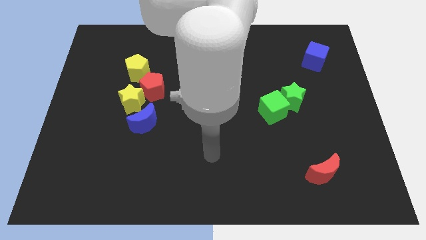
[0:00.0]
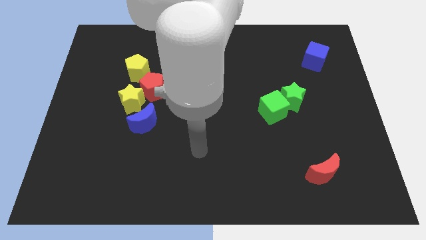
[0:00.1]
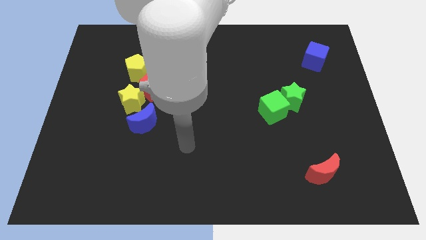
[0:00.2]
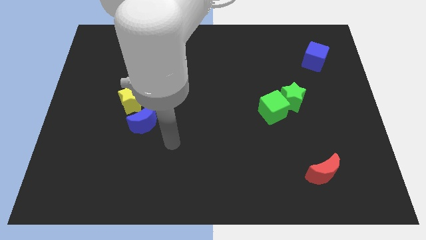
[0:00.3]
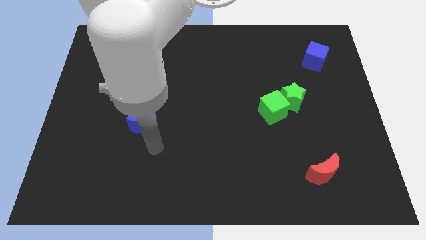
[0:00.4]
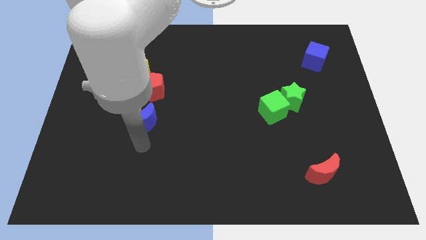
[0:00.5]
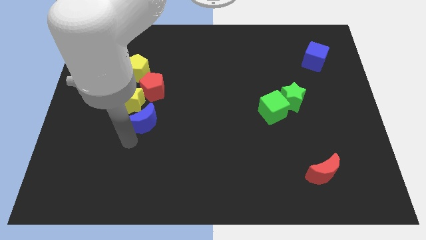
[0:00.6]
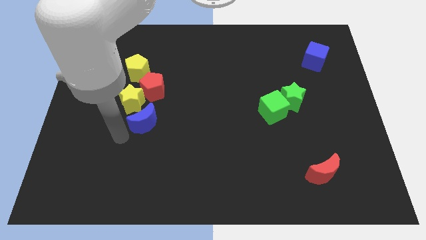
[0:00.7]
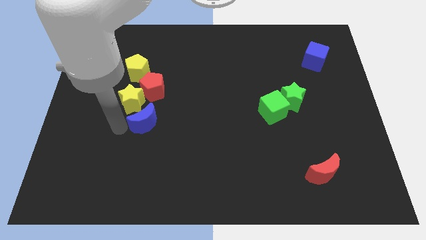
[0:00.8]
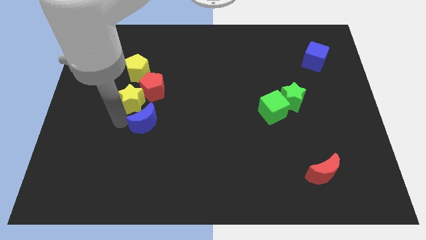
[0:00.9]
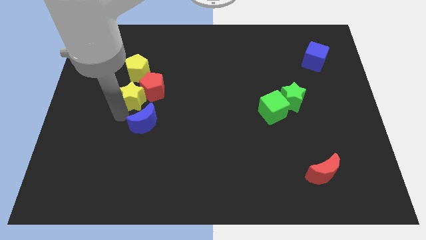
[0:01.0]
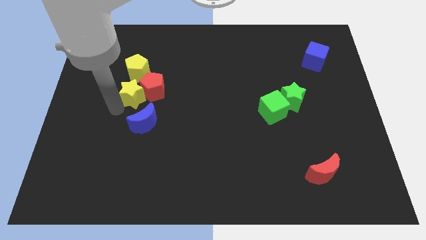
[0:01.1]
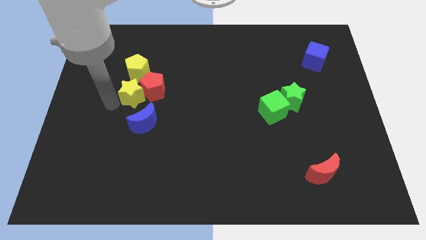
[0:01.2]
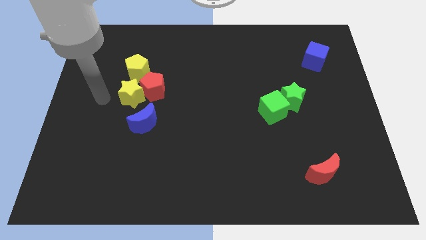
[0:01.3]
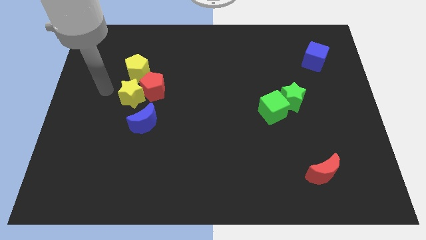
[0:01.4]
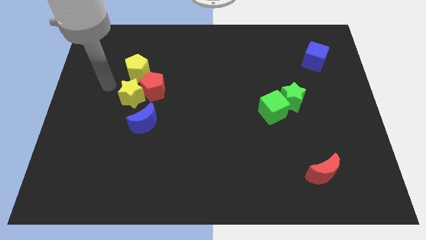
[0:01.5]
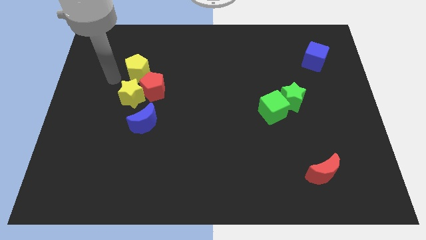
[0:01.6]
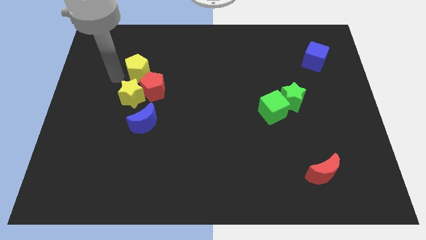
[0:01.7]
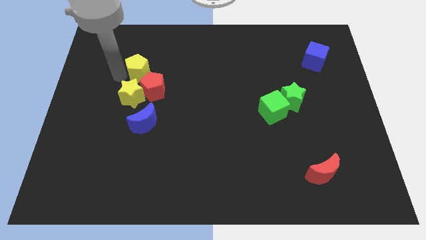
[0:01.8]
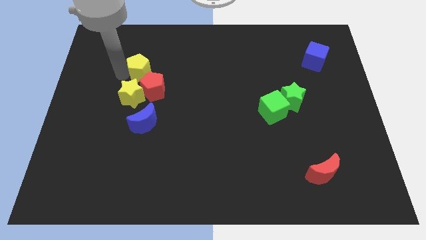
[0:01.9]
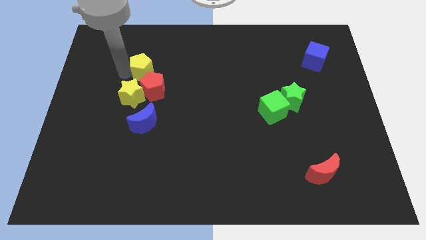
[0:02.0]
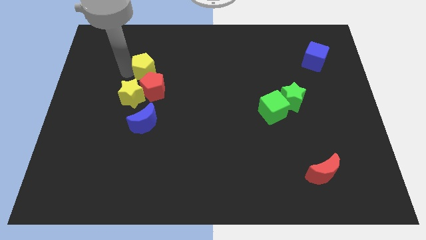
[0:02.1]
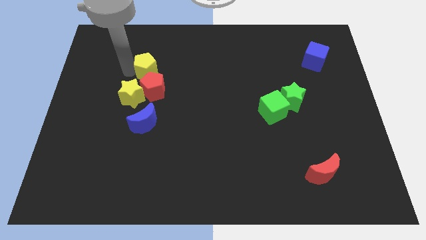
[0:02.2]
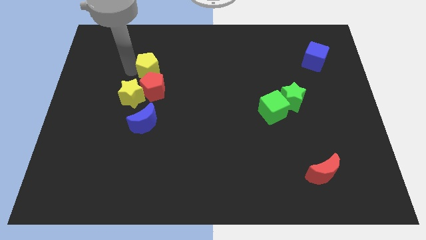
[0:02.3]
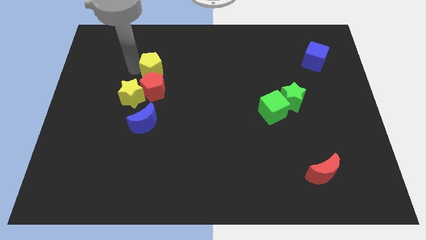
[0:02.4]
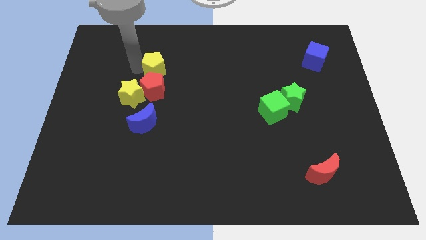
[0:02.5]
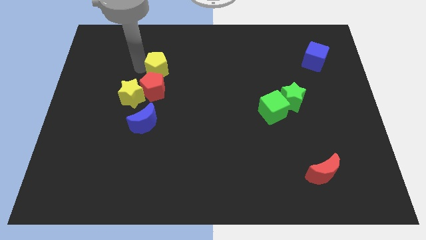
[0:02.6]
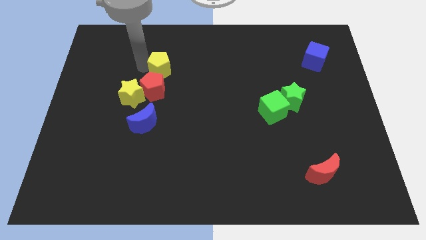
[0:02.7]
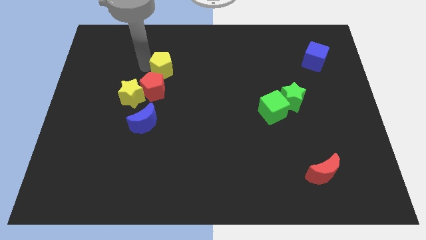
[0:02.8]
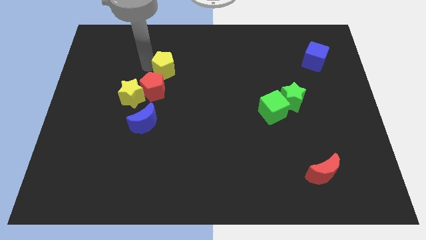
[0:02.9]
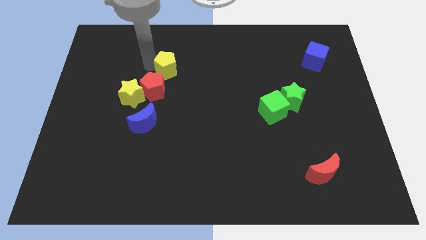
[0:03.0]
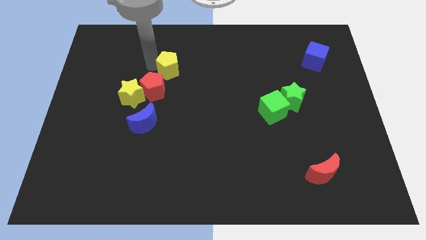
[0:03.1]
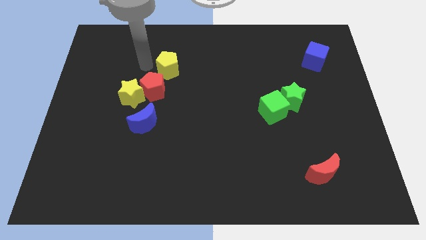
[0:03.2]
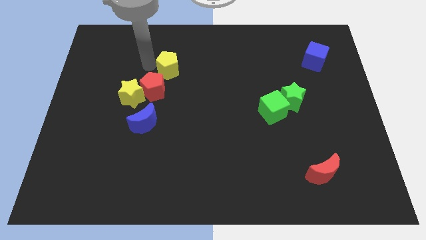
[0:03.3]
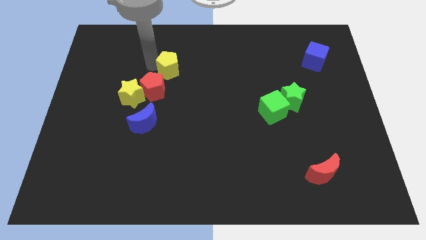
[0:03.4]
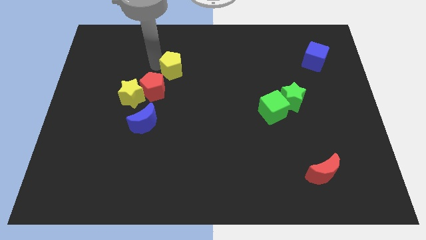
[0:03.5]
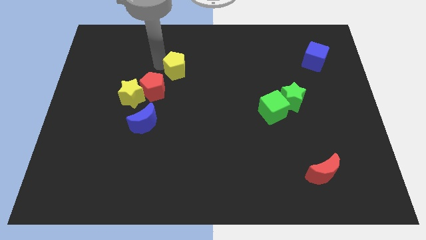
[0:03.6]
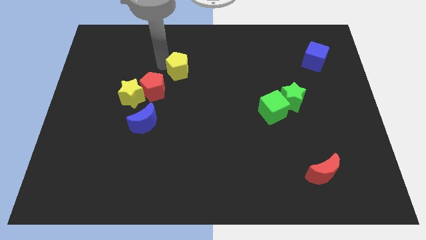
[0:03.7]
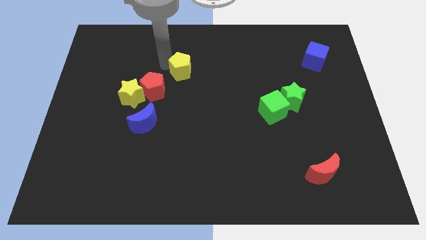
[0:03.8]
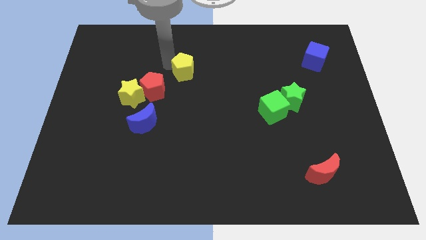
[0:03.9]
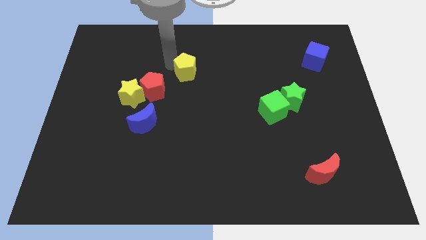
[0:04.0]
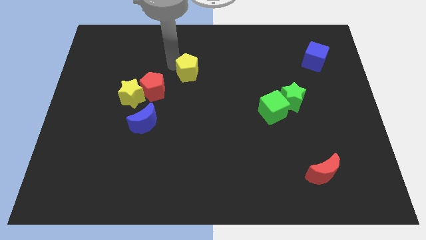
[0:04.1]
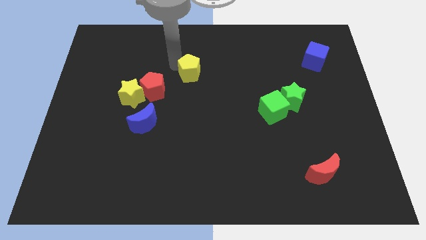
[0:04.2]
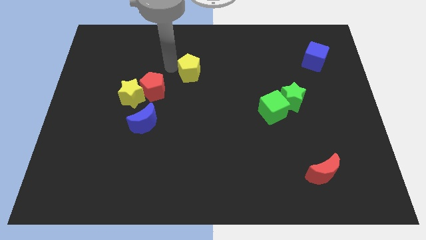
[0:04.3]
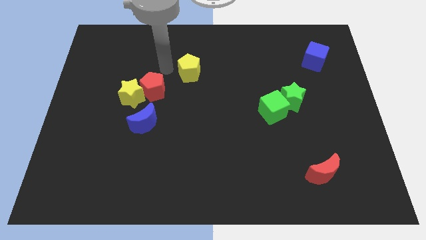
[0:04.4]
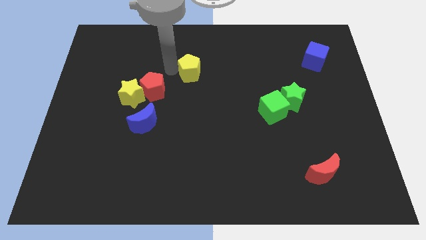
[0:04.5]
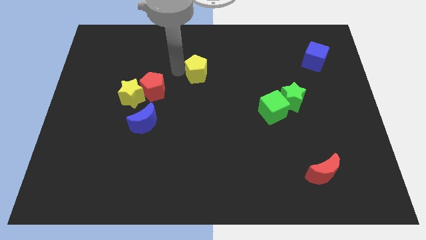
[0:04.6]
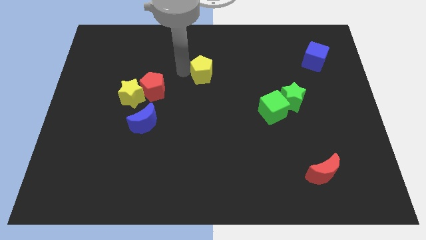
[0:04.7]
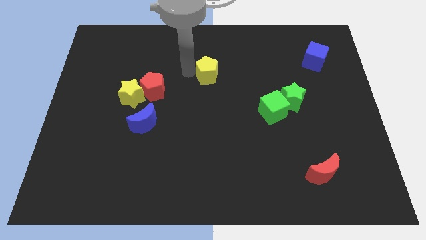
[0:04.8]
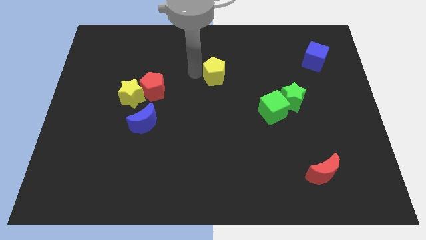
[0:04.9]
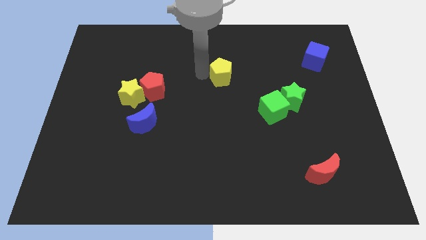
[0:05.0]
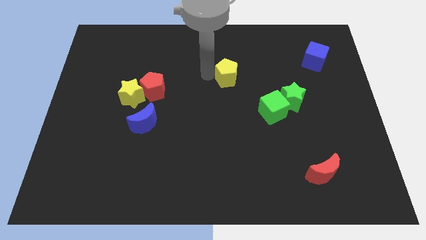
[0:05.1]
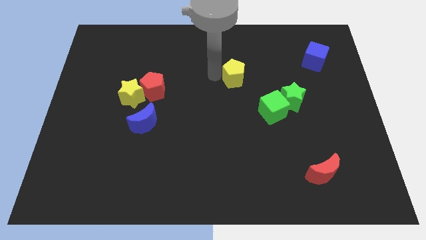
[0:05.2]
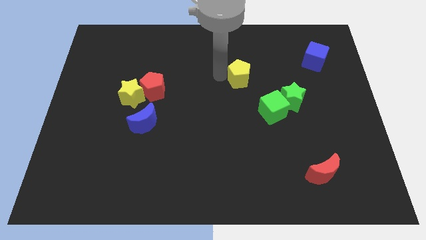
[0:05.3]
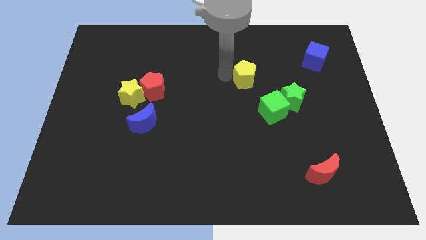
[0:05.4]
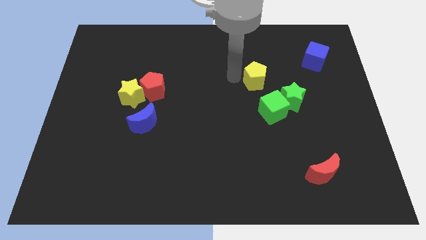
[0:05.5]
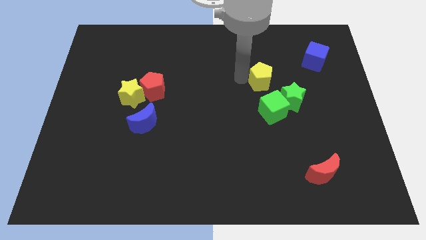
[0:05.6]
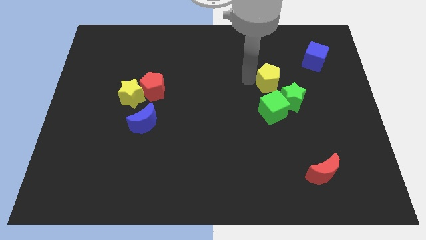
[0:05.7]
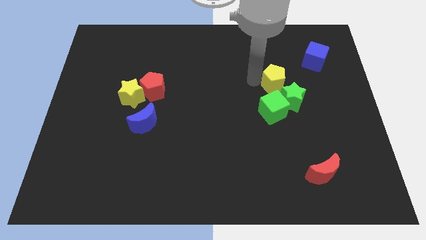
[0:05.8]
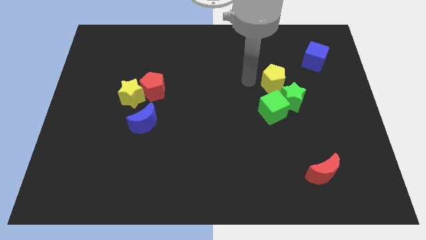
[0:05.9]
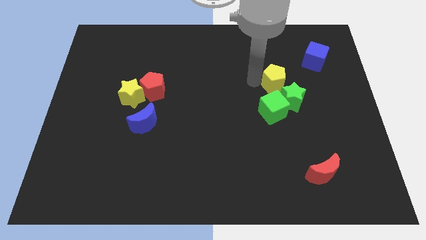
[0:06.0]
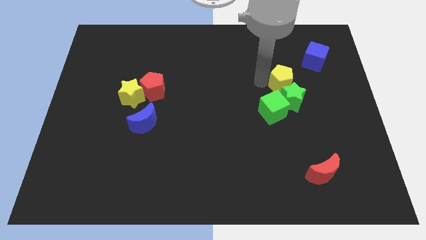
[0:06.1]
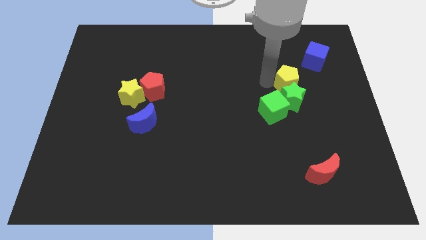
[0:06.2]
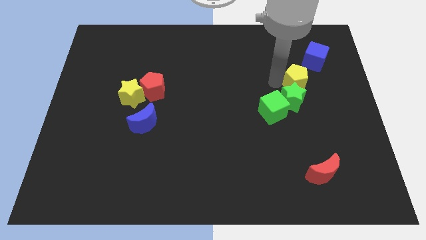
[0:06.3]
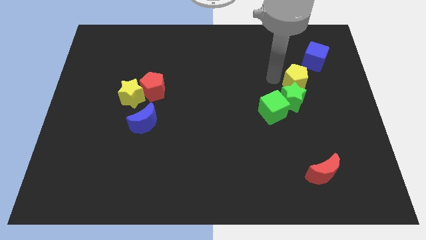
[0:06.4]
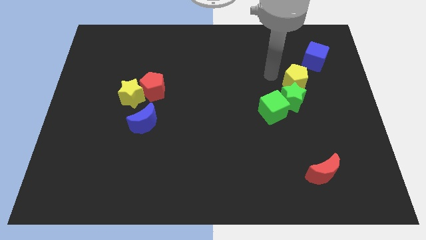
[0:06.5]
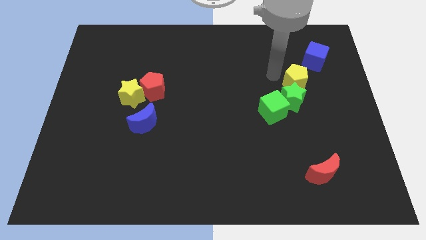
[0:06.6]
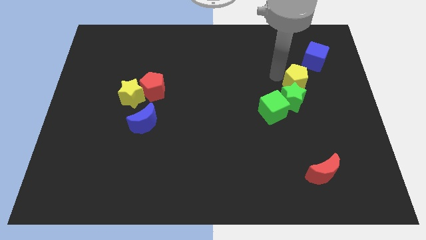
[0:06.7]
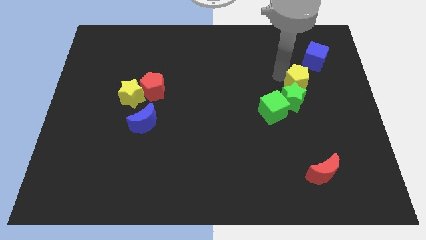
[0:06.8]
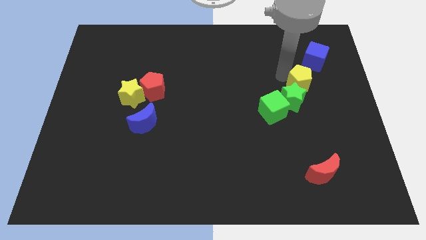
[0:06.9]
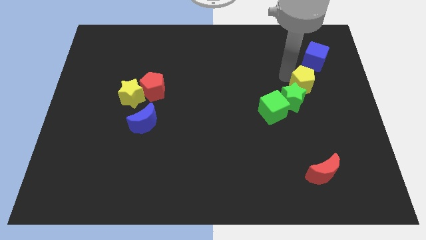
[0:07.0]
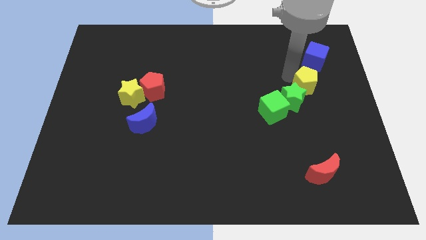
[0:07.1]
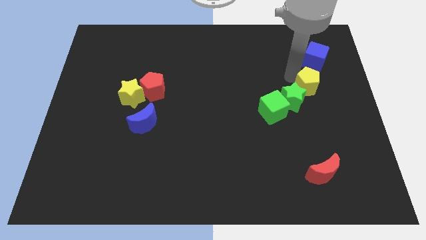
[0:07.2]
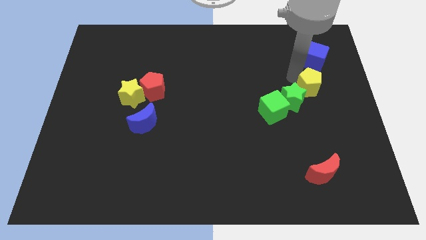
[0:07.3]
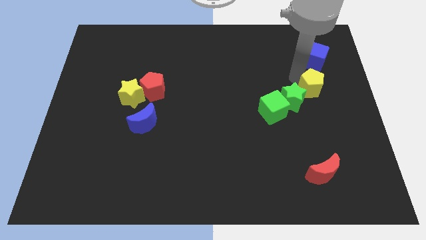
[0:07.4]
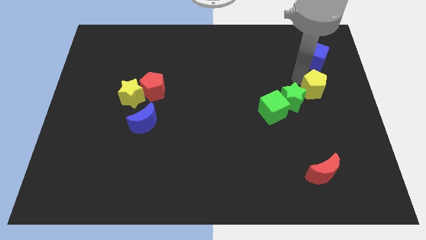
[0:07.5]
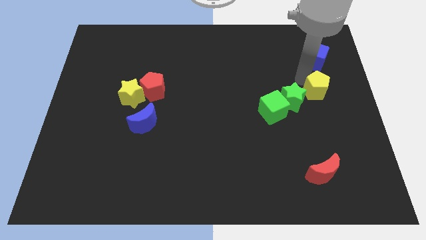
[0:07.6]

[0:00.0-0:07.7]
push the yellow pentagon to the center right
